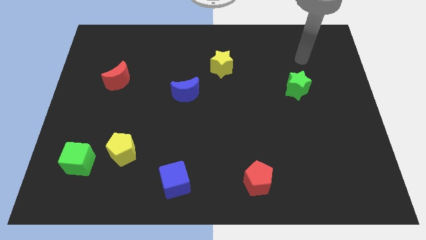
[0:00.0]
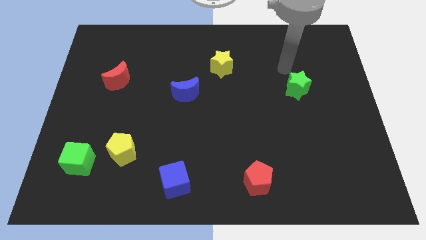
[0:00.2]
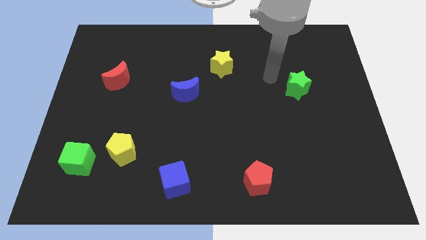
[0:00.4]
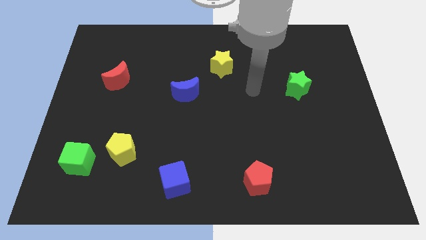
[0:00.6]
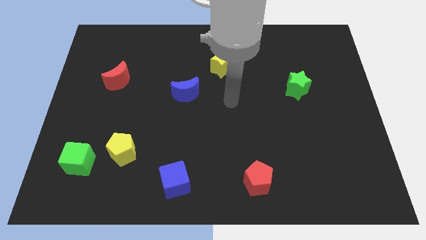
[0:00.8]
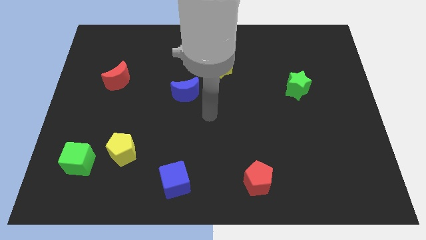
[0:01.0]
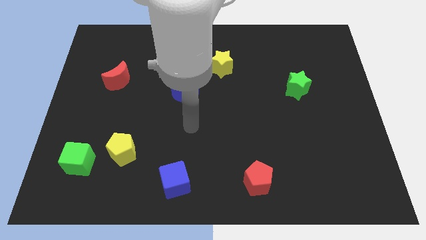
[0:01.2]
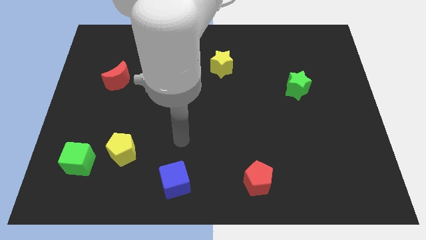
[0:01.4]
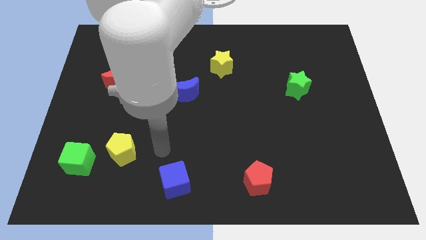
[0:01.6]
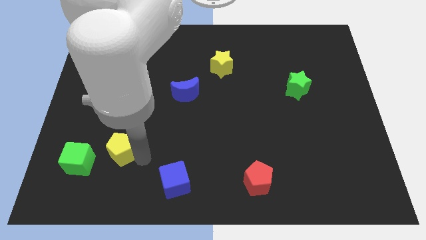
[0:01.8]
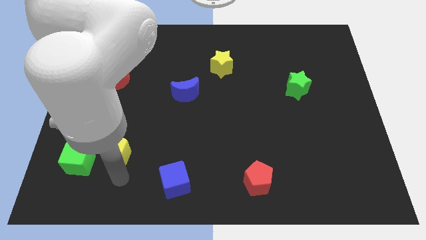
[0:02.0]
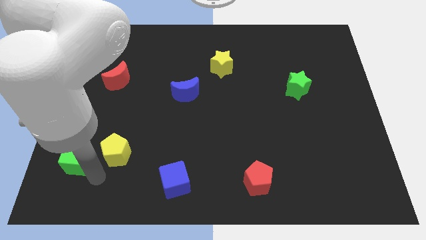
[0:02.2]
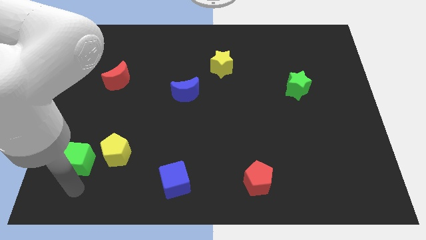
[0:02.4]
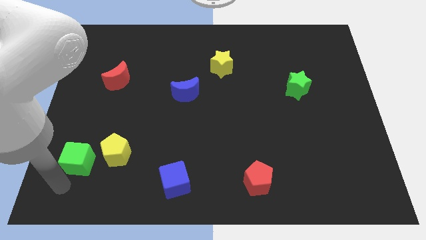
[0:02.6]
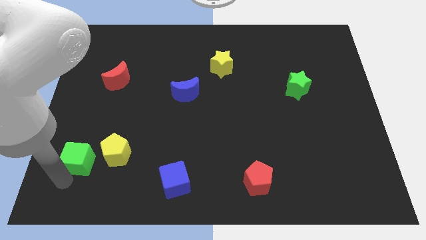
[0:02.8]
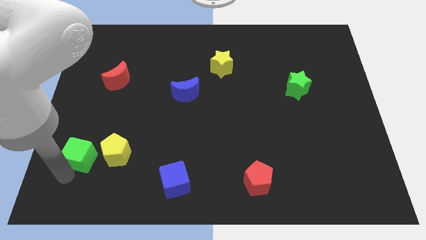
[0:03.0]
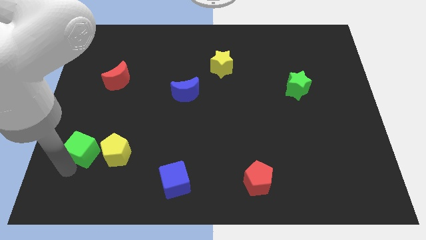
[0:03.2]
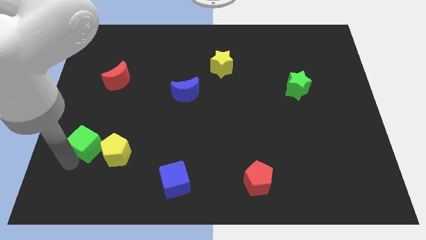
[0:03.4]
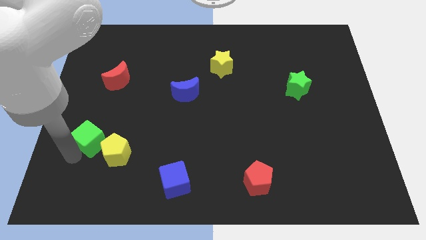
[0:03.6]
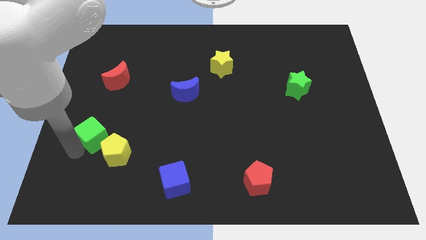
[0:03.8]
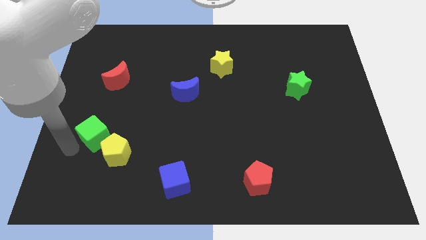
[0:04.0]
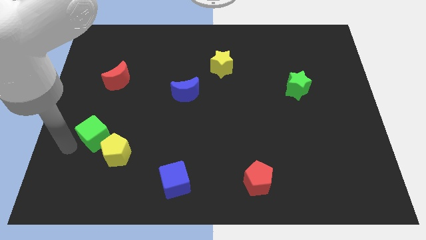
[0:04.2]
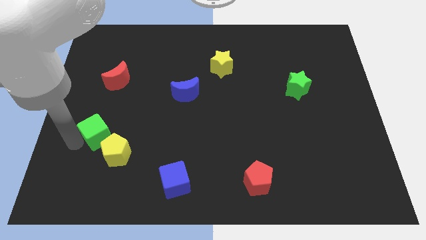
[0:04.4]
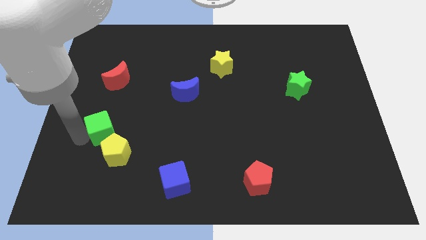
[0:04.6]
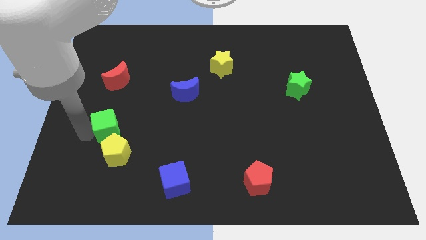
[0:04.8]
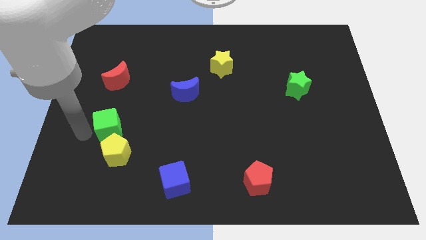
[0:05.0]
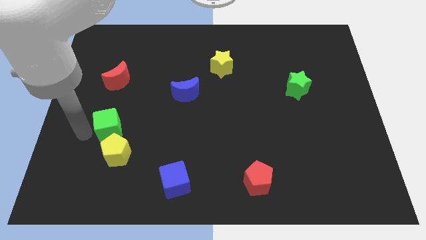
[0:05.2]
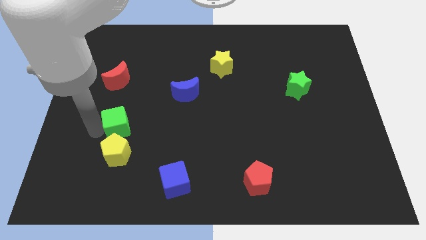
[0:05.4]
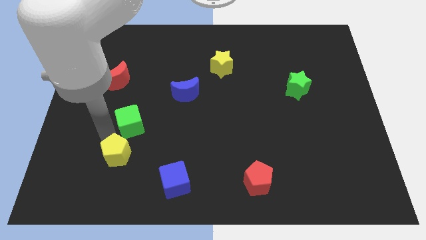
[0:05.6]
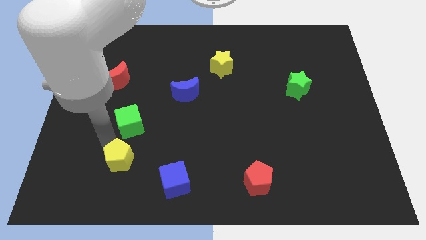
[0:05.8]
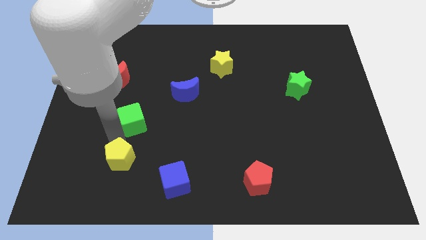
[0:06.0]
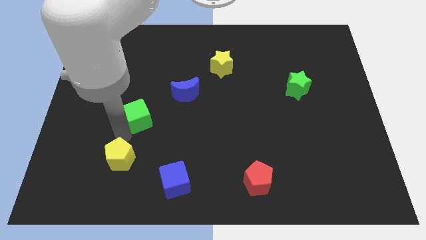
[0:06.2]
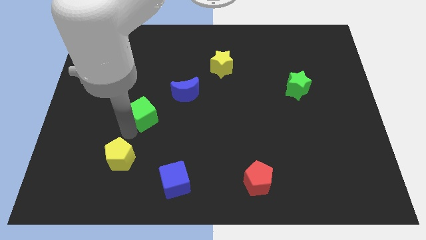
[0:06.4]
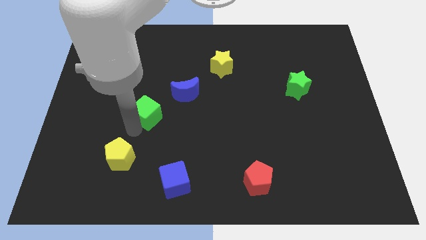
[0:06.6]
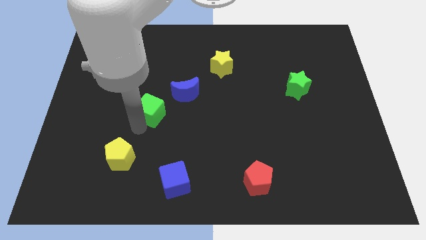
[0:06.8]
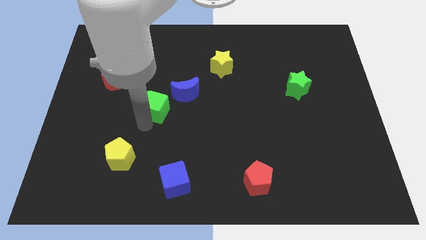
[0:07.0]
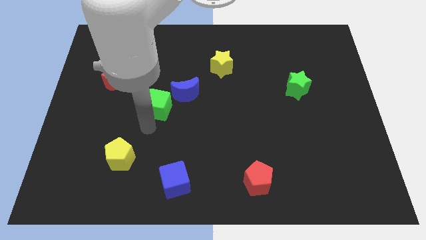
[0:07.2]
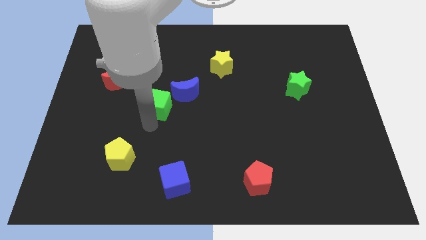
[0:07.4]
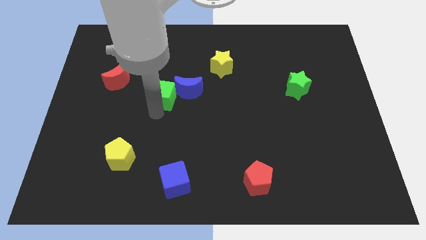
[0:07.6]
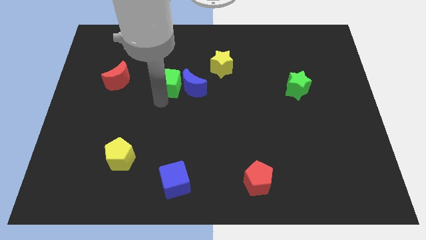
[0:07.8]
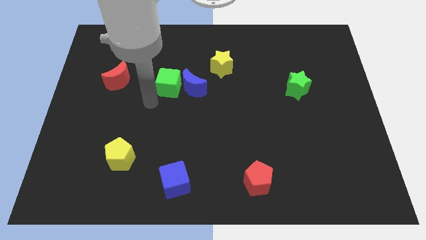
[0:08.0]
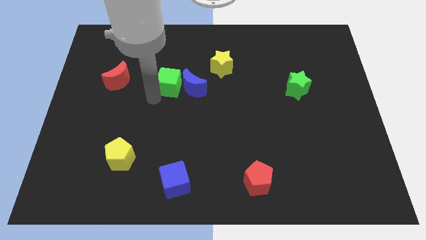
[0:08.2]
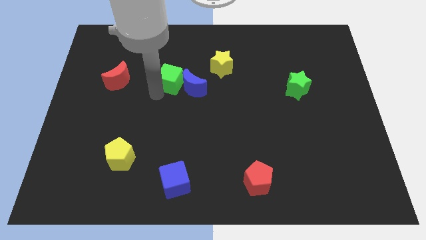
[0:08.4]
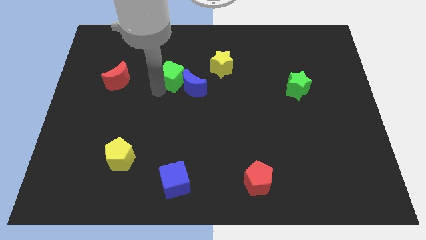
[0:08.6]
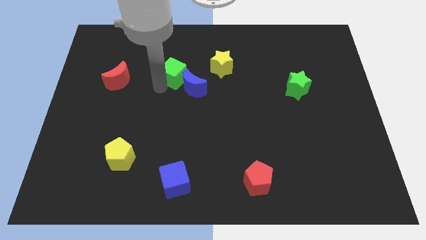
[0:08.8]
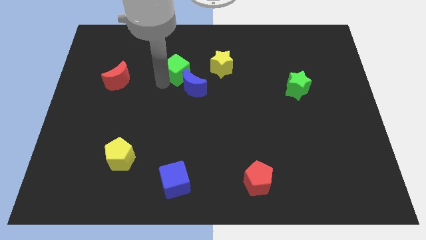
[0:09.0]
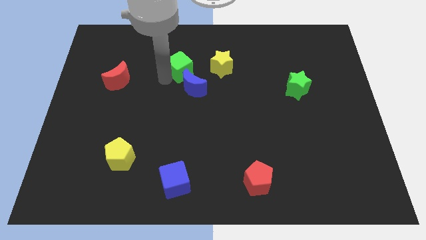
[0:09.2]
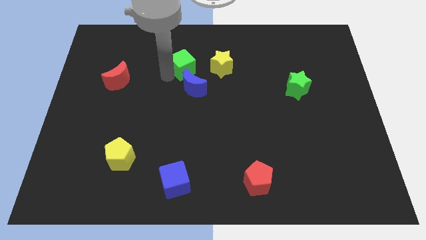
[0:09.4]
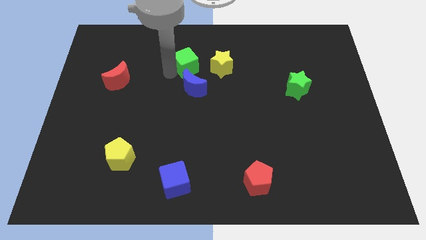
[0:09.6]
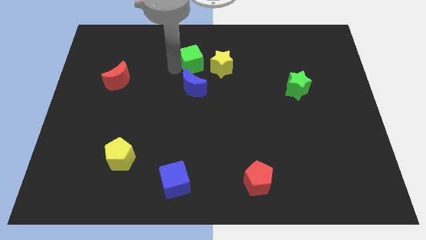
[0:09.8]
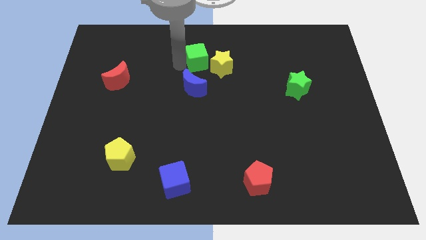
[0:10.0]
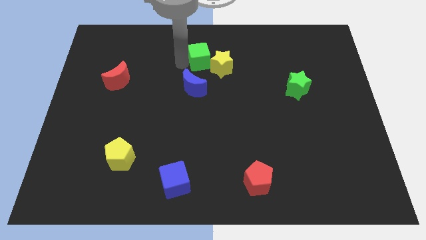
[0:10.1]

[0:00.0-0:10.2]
move the green cube close to the yellow star

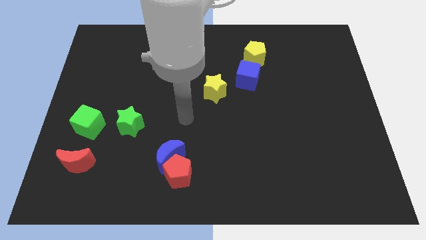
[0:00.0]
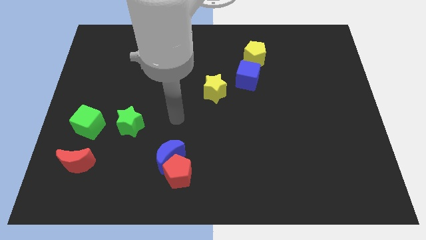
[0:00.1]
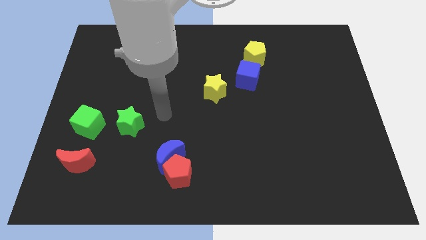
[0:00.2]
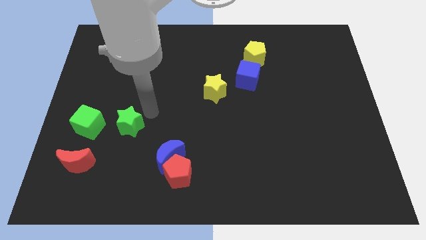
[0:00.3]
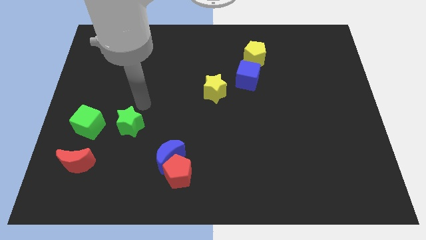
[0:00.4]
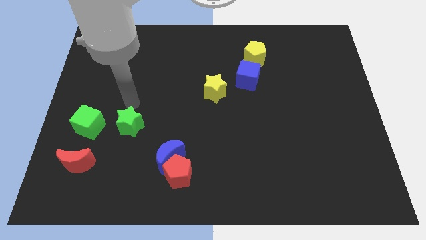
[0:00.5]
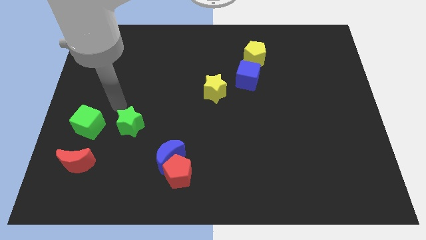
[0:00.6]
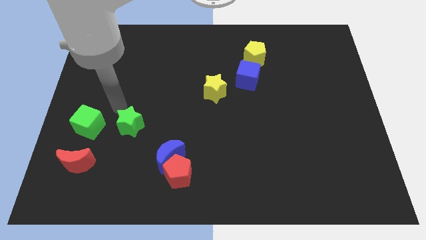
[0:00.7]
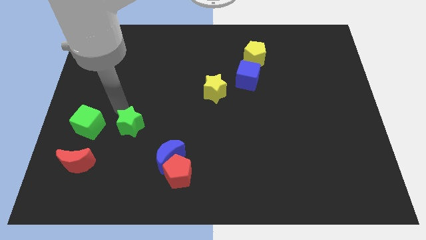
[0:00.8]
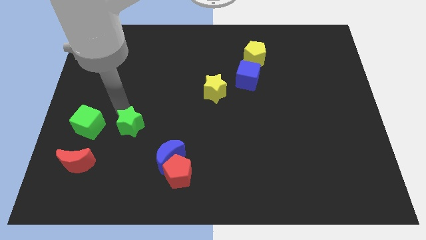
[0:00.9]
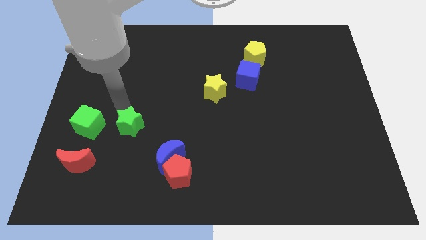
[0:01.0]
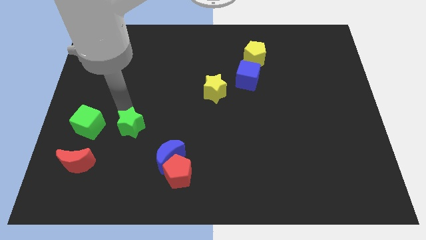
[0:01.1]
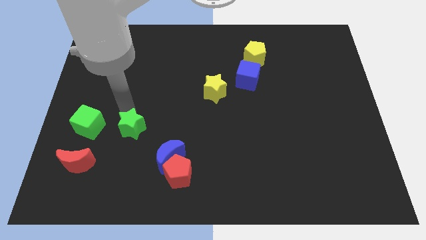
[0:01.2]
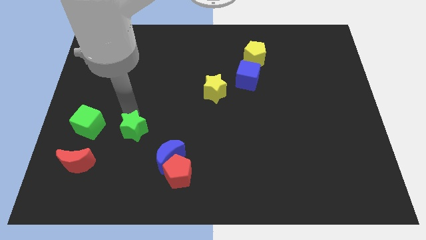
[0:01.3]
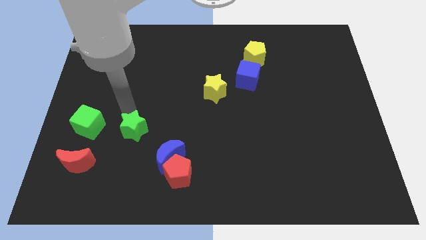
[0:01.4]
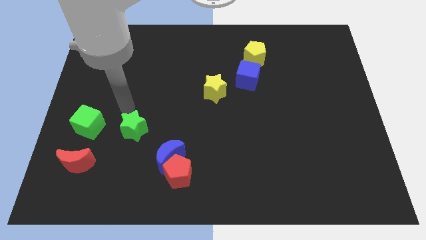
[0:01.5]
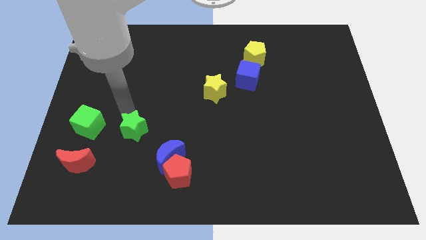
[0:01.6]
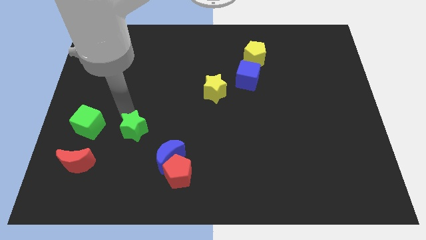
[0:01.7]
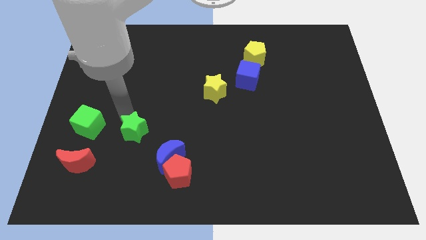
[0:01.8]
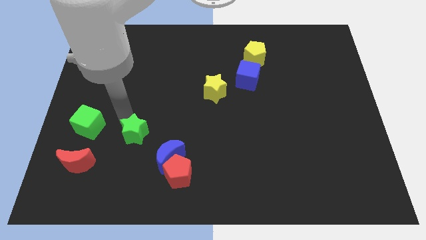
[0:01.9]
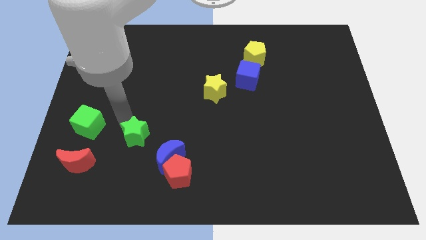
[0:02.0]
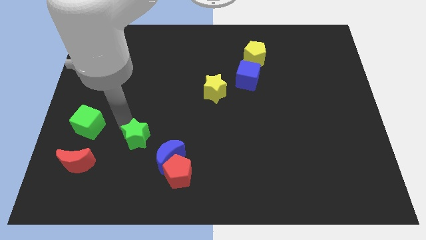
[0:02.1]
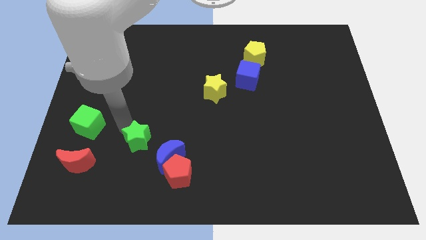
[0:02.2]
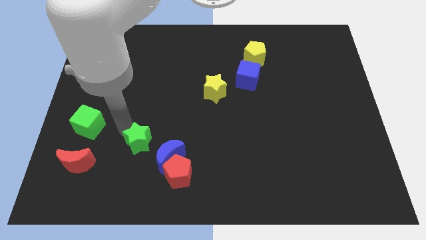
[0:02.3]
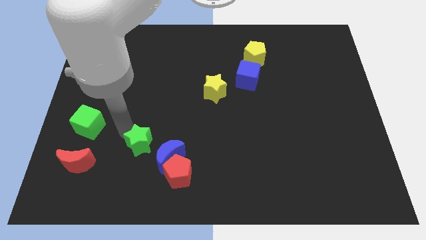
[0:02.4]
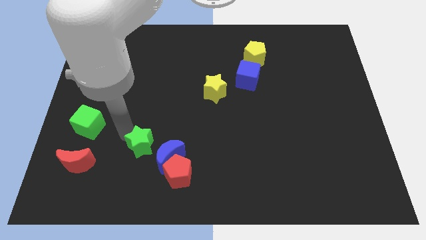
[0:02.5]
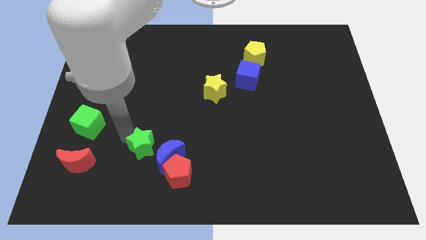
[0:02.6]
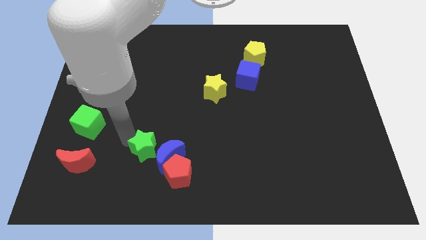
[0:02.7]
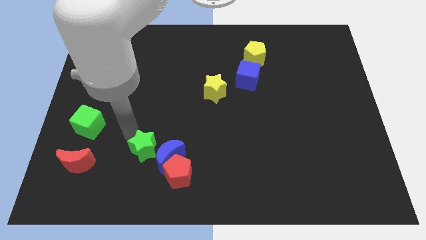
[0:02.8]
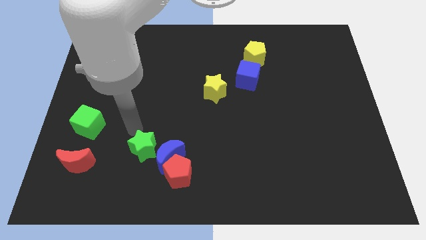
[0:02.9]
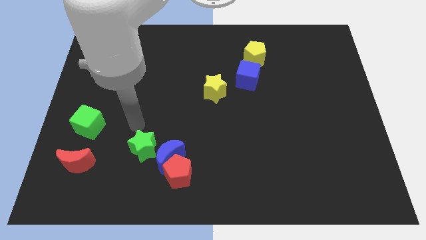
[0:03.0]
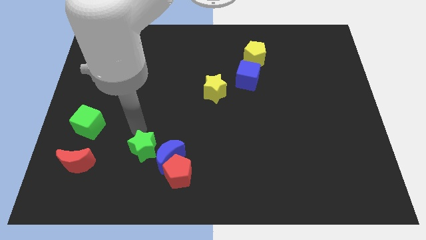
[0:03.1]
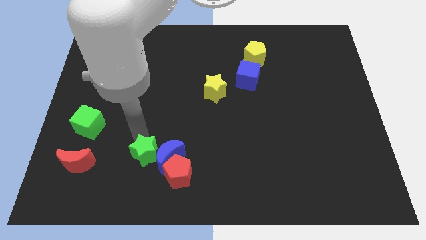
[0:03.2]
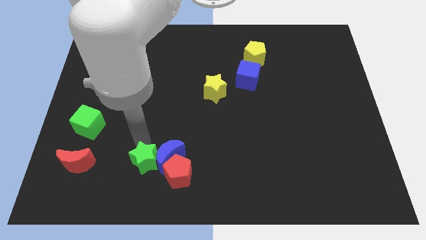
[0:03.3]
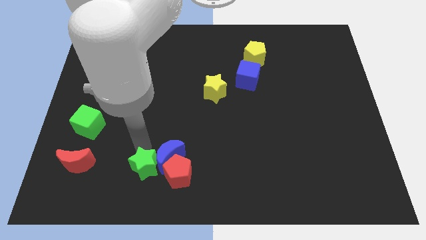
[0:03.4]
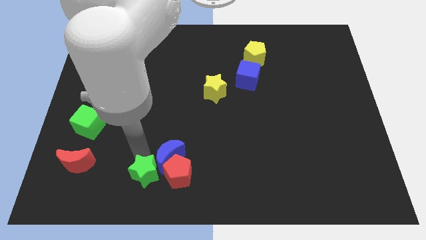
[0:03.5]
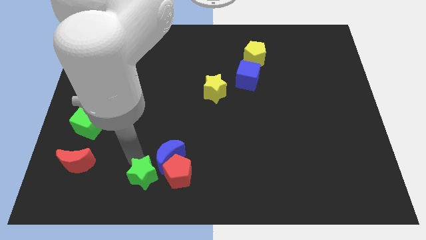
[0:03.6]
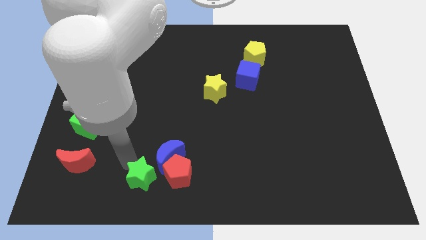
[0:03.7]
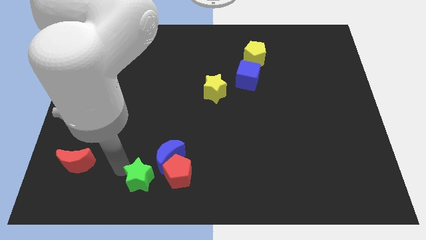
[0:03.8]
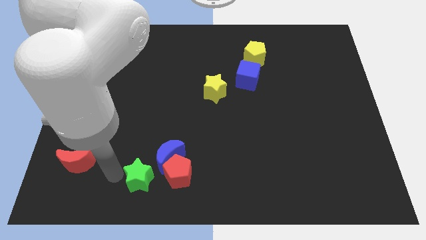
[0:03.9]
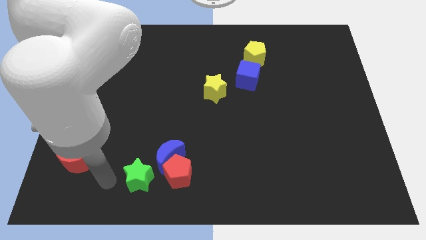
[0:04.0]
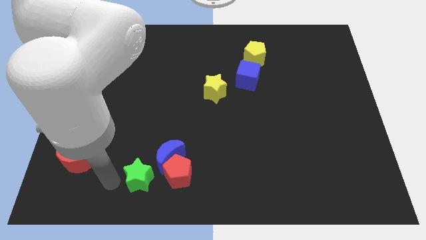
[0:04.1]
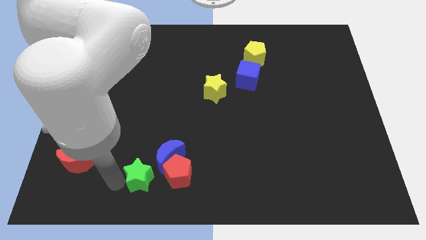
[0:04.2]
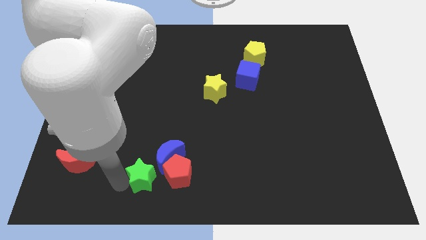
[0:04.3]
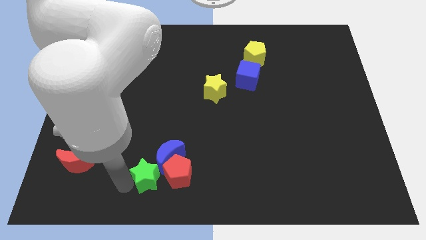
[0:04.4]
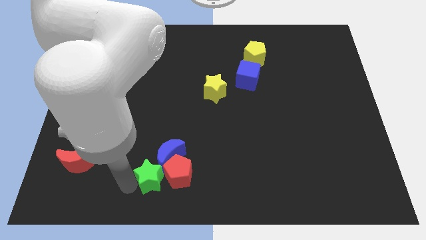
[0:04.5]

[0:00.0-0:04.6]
push the green star next to the red pentagon
